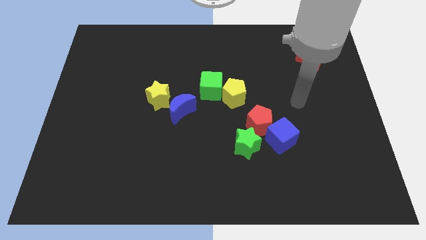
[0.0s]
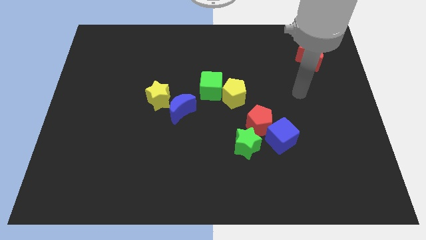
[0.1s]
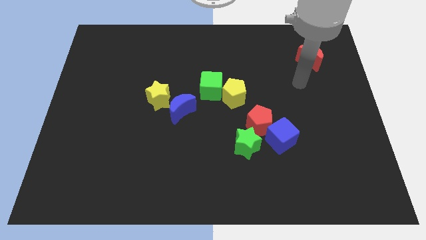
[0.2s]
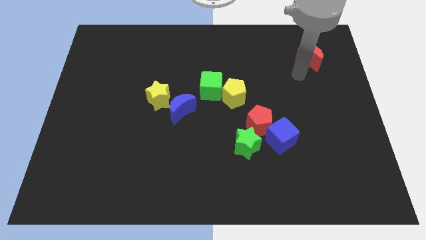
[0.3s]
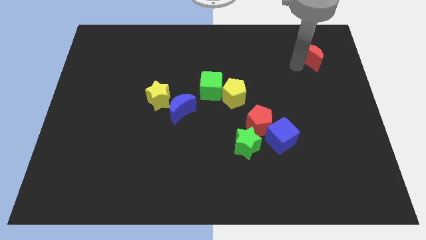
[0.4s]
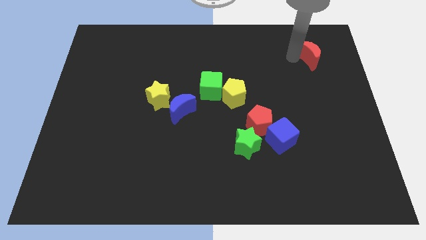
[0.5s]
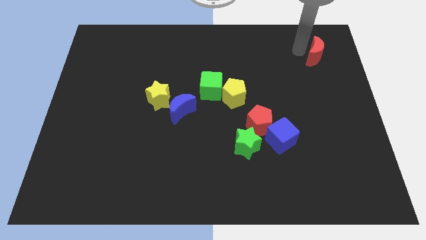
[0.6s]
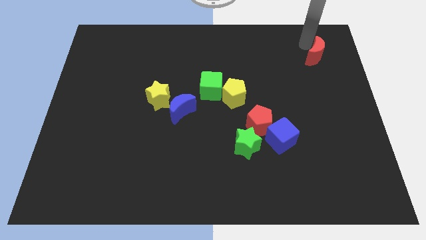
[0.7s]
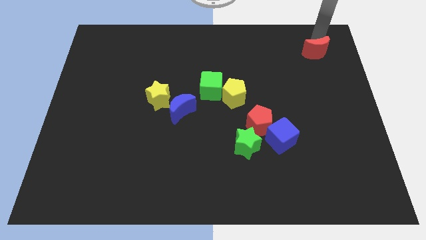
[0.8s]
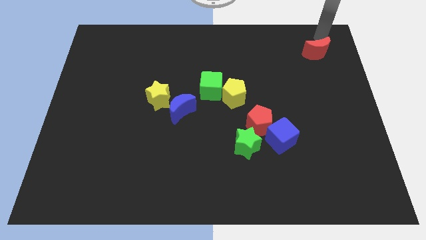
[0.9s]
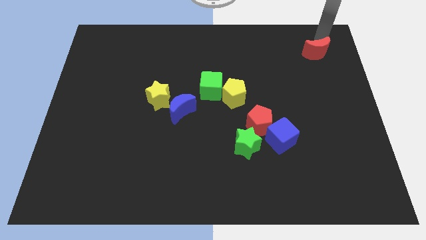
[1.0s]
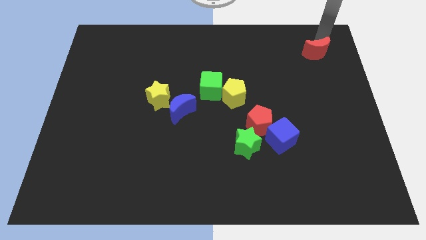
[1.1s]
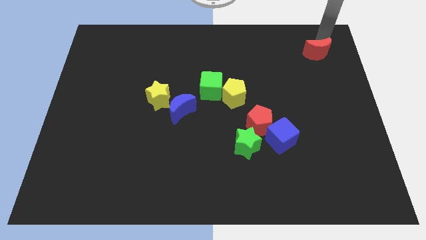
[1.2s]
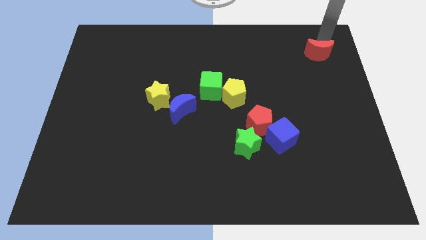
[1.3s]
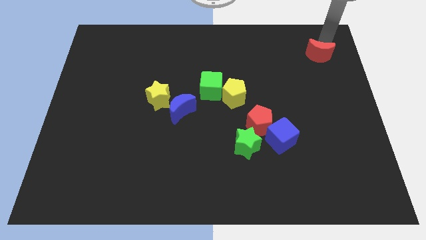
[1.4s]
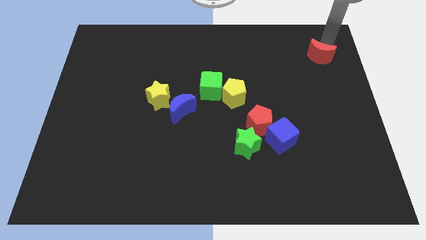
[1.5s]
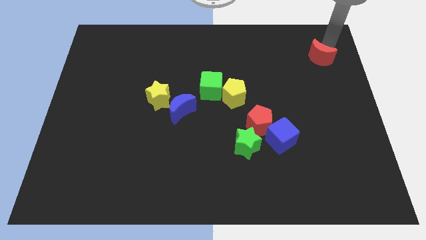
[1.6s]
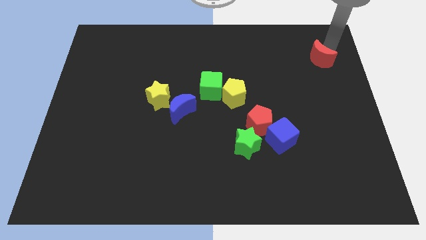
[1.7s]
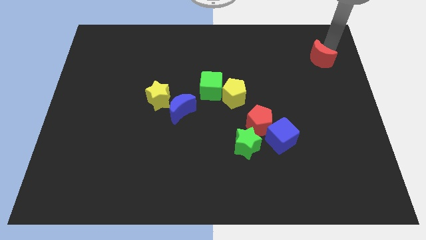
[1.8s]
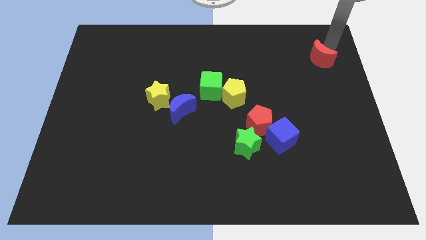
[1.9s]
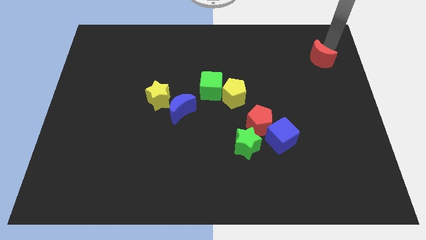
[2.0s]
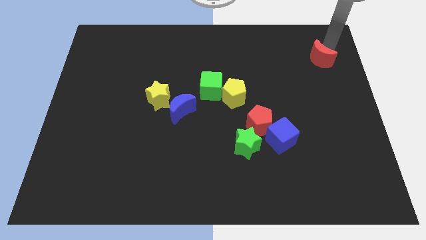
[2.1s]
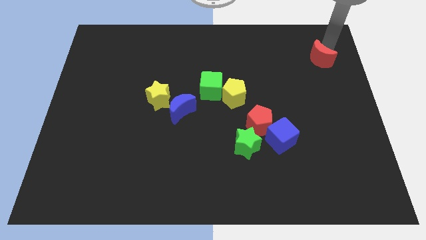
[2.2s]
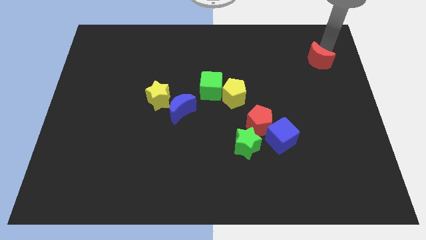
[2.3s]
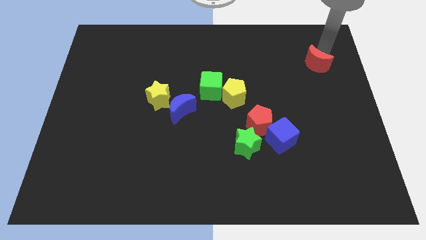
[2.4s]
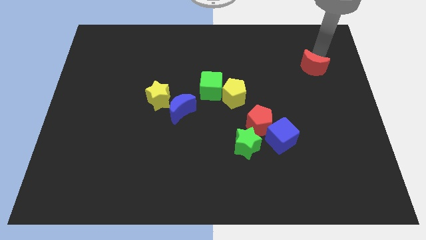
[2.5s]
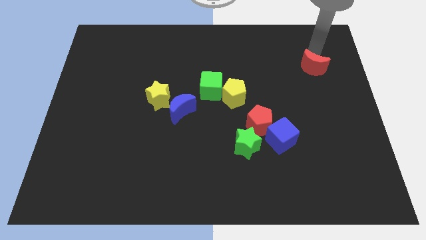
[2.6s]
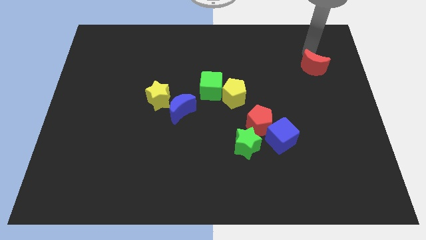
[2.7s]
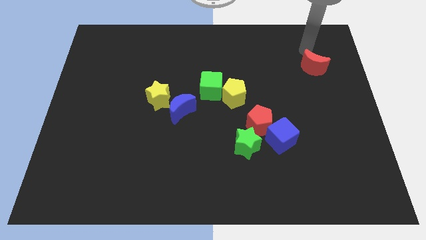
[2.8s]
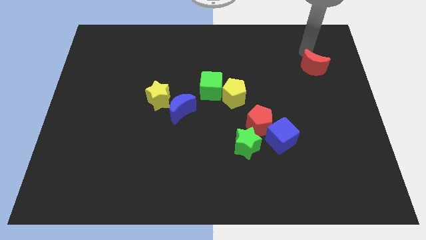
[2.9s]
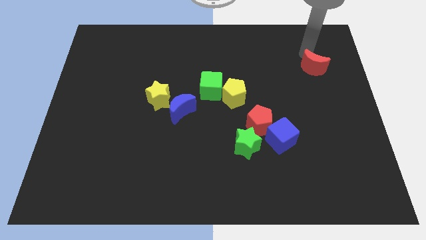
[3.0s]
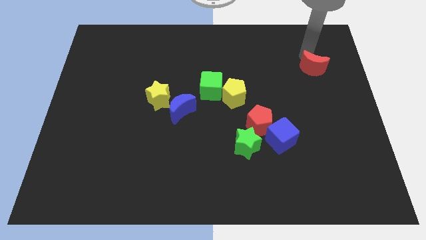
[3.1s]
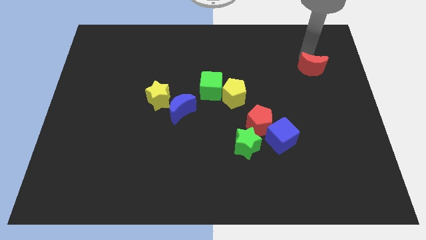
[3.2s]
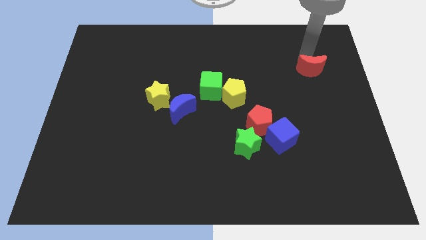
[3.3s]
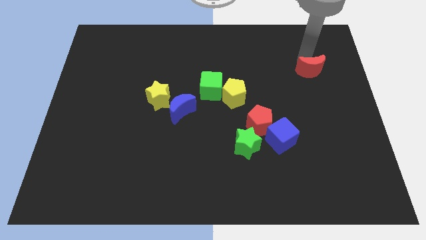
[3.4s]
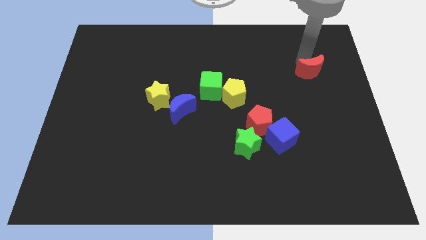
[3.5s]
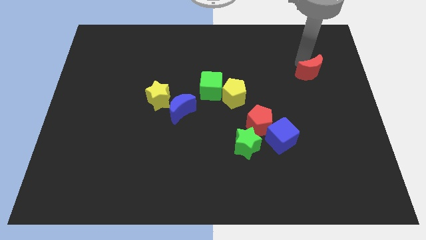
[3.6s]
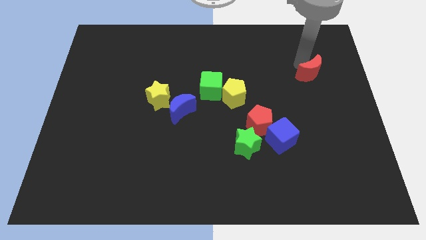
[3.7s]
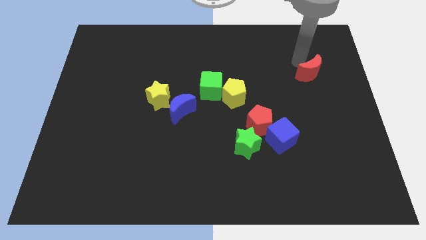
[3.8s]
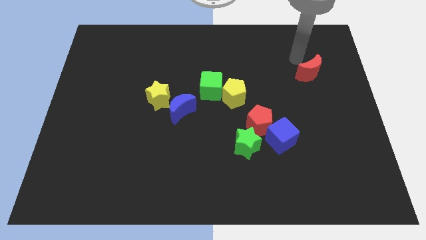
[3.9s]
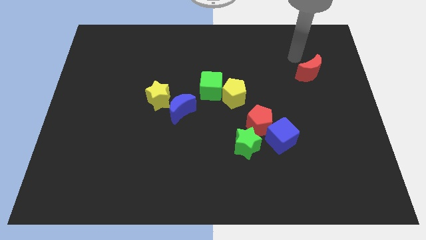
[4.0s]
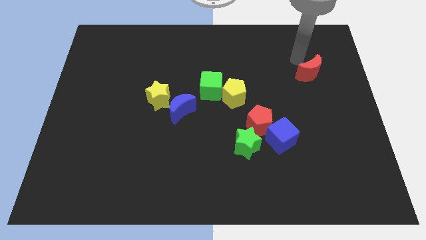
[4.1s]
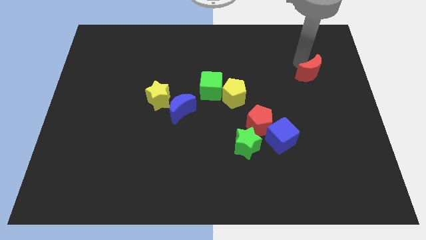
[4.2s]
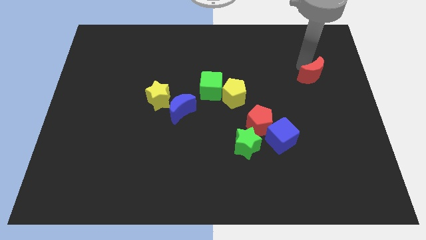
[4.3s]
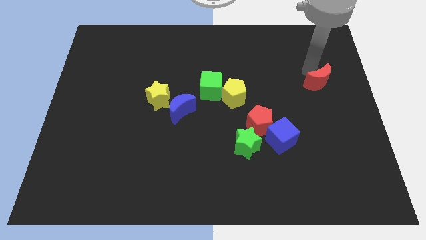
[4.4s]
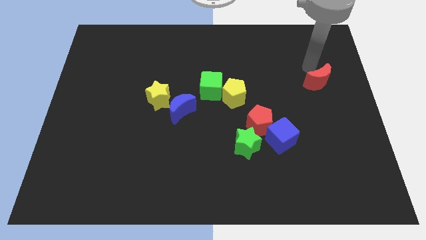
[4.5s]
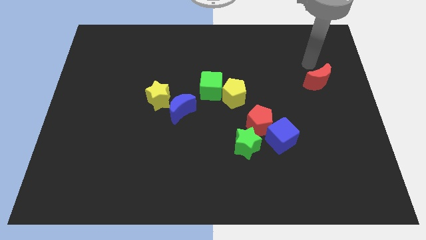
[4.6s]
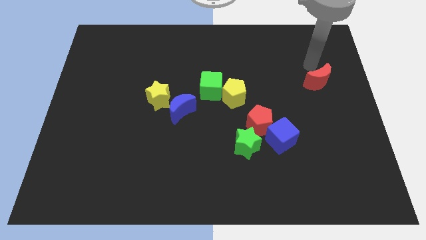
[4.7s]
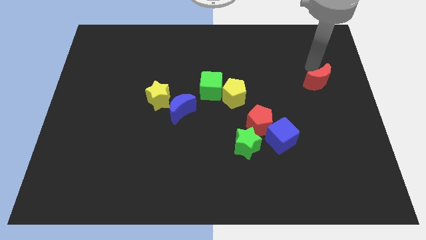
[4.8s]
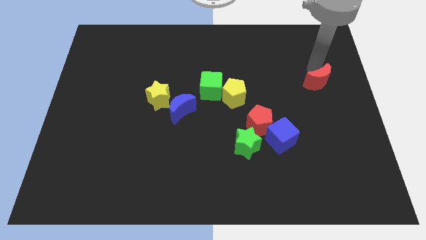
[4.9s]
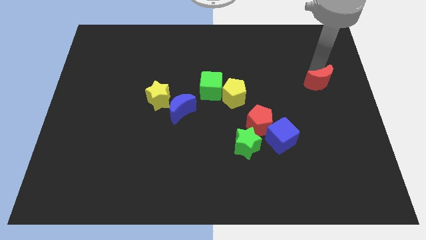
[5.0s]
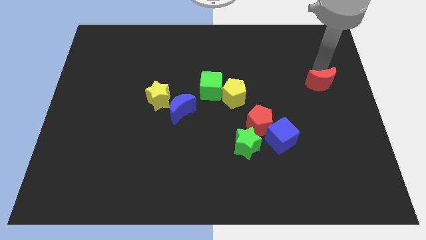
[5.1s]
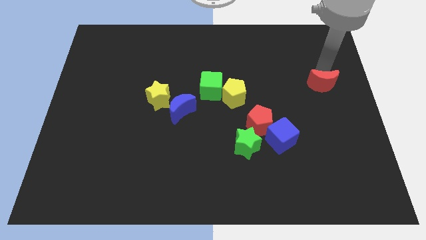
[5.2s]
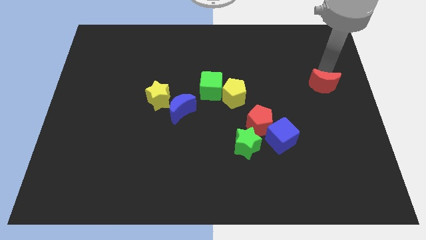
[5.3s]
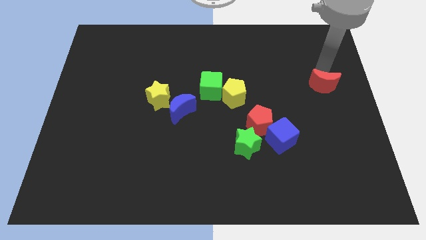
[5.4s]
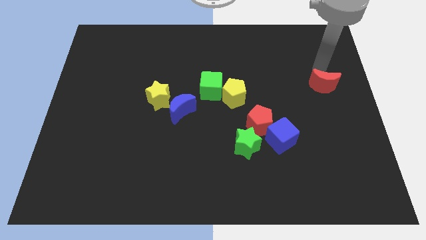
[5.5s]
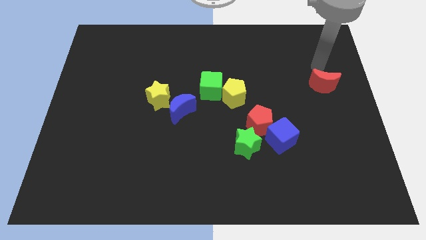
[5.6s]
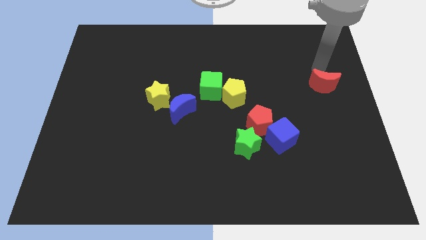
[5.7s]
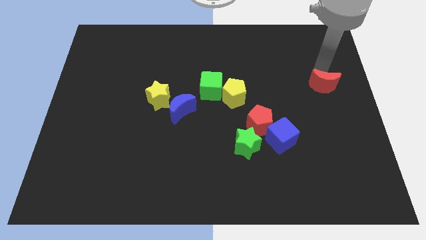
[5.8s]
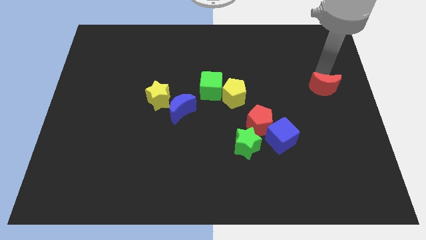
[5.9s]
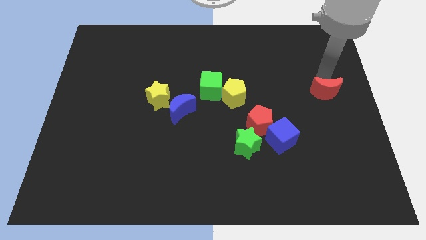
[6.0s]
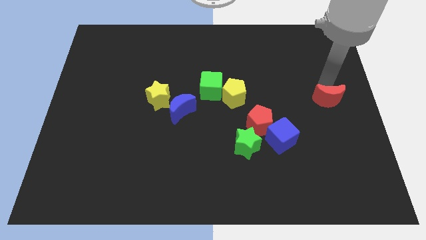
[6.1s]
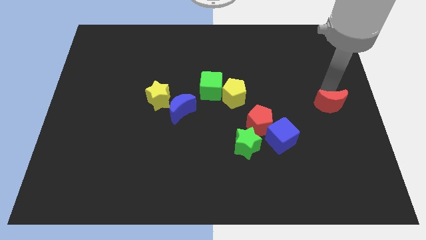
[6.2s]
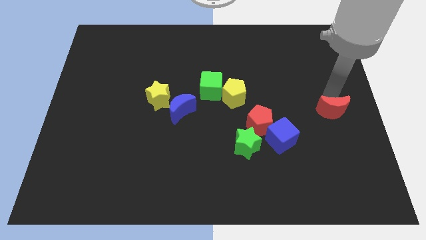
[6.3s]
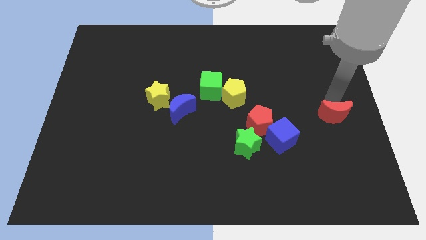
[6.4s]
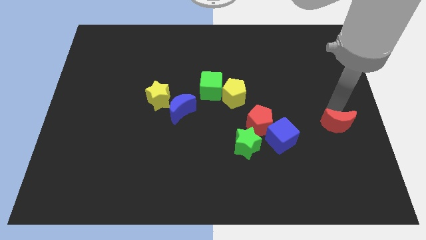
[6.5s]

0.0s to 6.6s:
move the red moon downwards

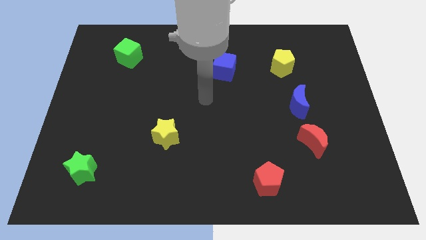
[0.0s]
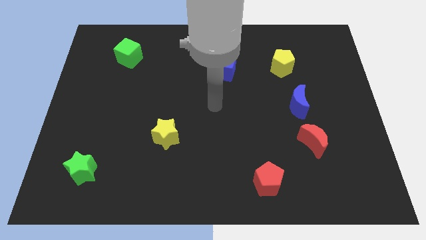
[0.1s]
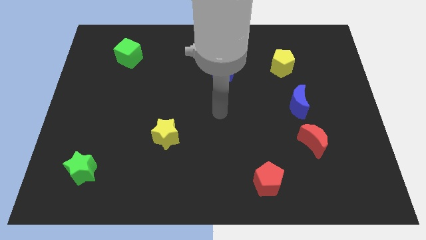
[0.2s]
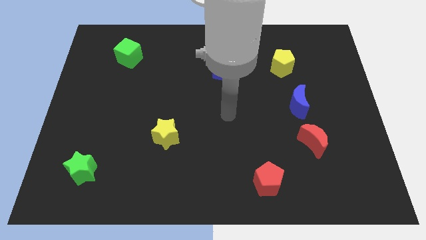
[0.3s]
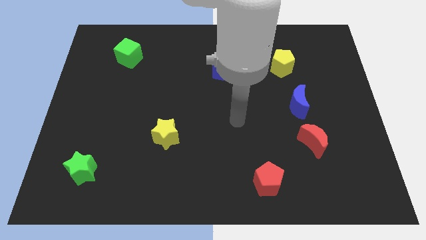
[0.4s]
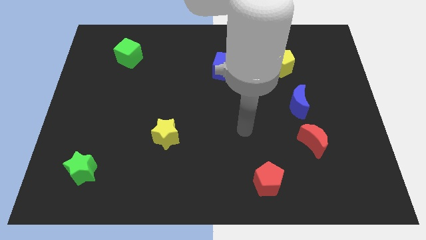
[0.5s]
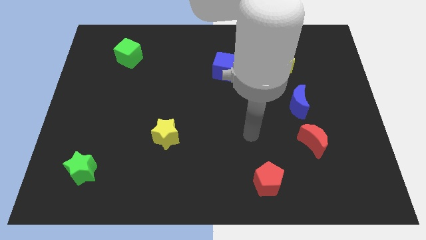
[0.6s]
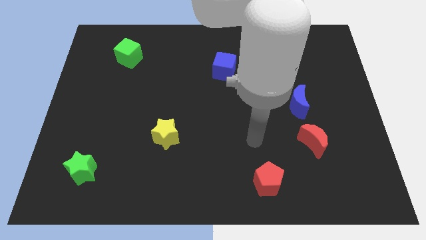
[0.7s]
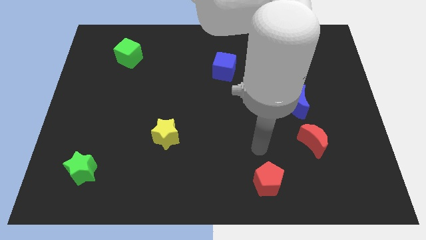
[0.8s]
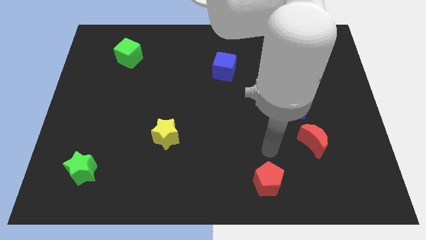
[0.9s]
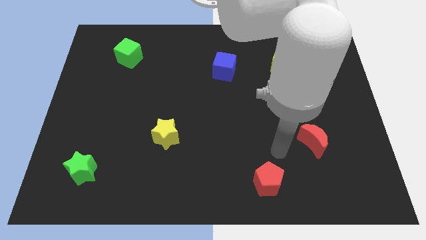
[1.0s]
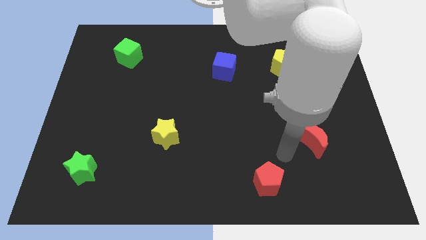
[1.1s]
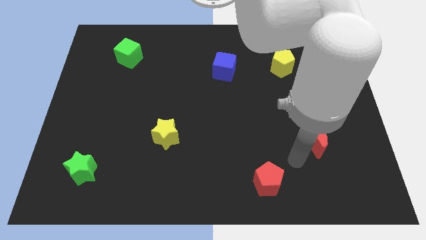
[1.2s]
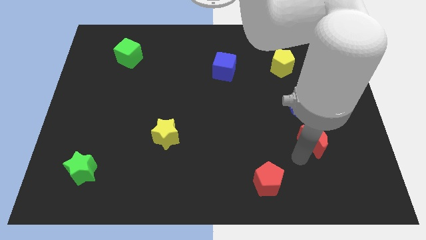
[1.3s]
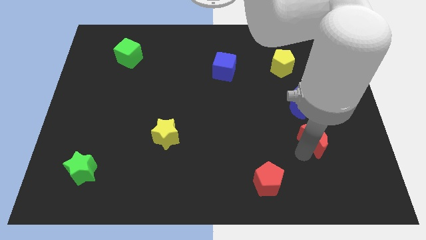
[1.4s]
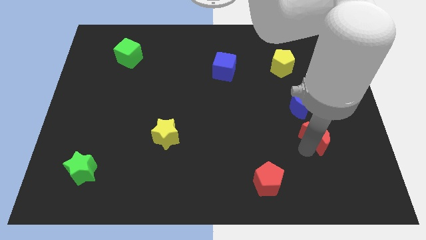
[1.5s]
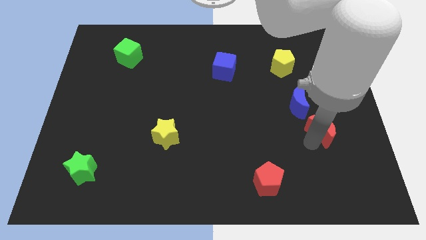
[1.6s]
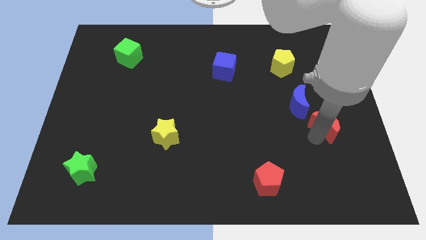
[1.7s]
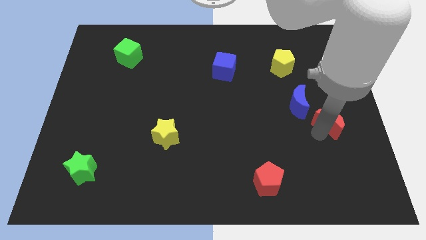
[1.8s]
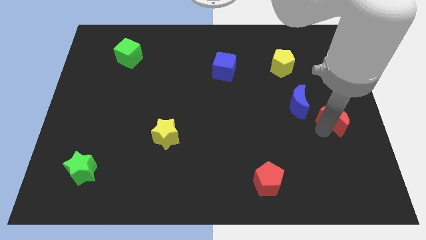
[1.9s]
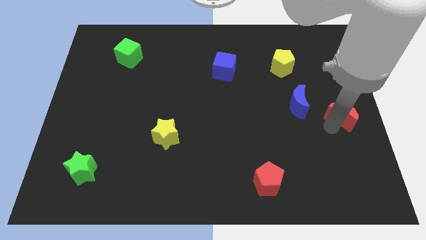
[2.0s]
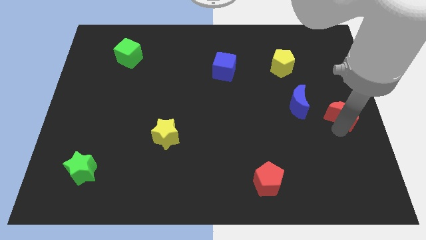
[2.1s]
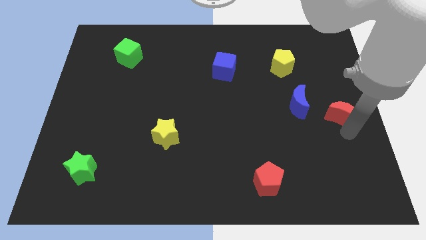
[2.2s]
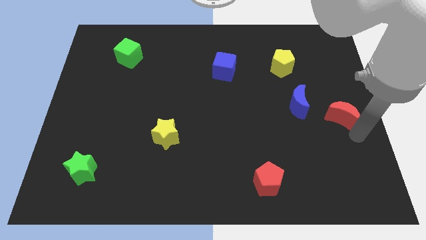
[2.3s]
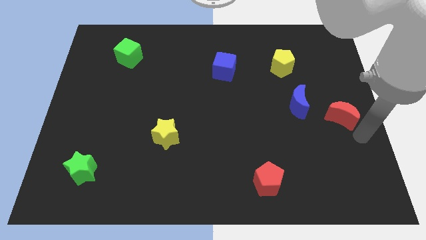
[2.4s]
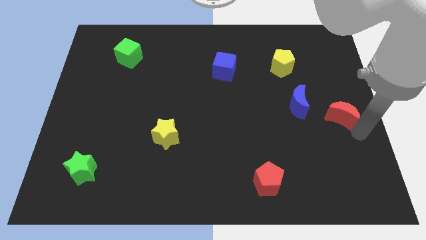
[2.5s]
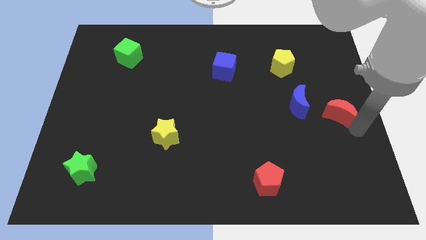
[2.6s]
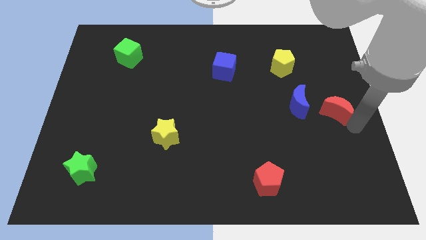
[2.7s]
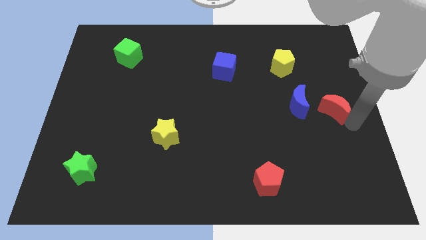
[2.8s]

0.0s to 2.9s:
push the red moon up somewhat
